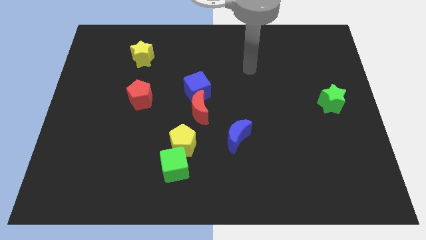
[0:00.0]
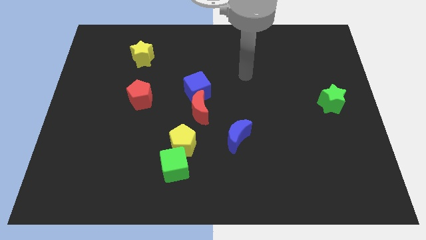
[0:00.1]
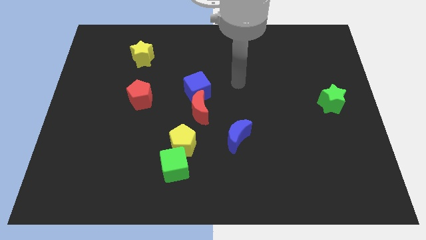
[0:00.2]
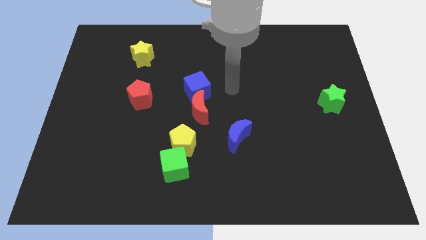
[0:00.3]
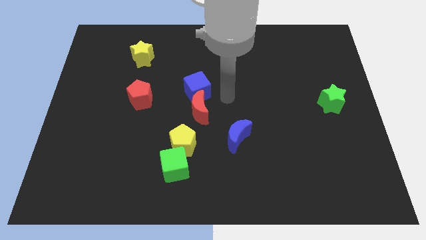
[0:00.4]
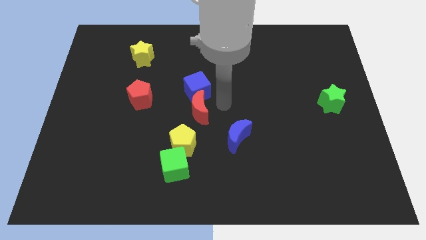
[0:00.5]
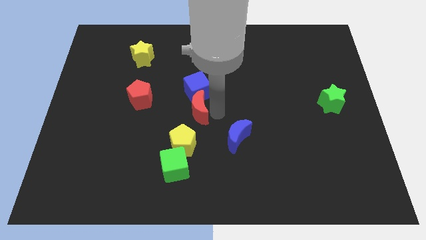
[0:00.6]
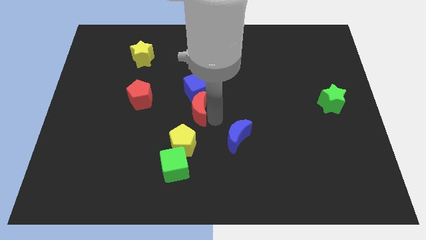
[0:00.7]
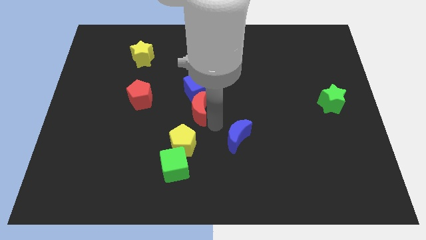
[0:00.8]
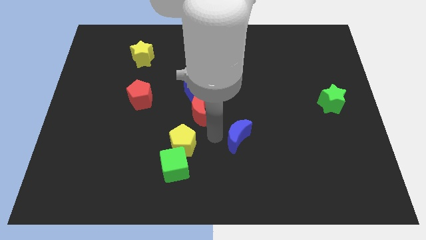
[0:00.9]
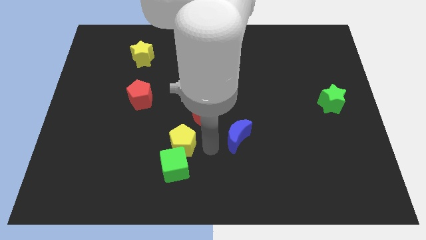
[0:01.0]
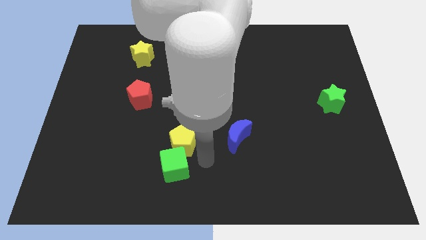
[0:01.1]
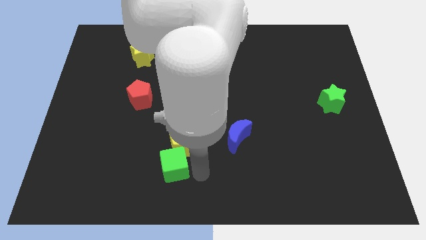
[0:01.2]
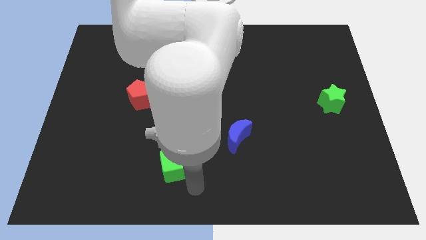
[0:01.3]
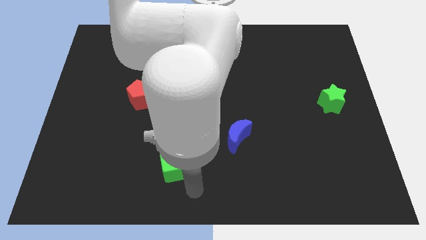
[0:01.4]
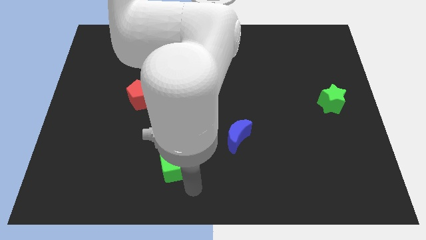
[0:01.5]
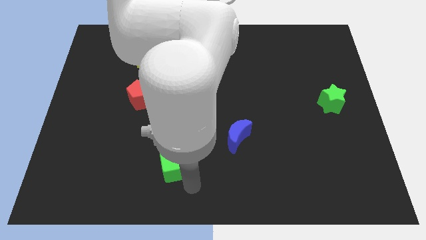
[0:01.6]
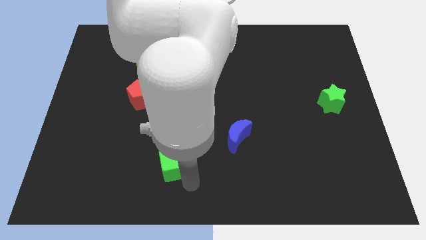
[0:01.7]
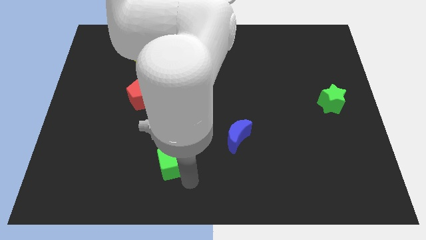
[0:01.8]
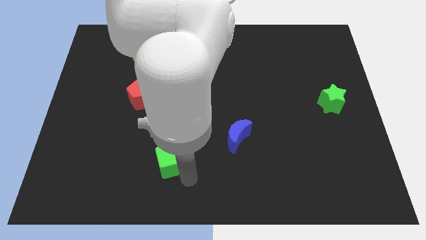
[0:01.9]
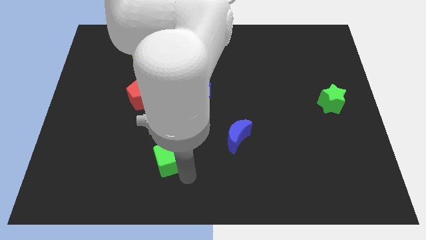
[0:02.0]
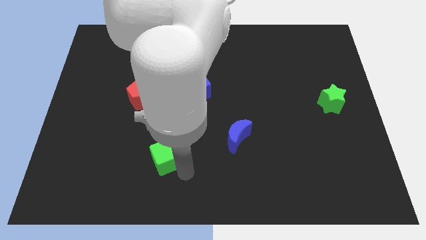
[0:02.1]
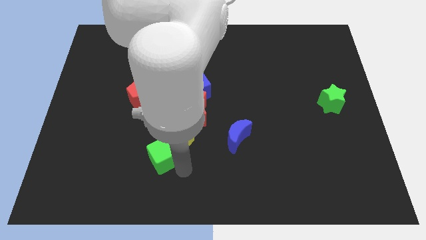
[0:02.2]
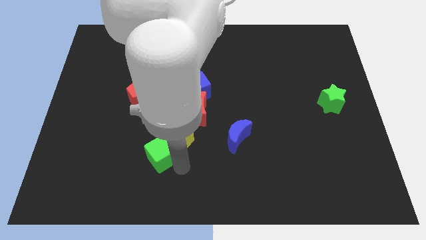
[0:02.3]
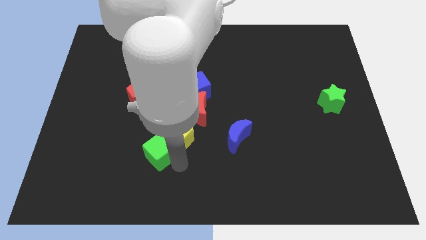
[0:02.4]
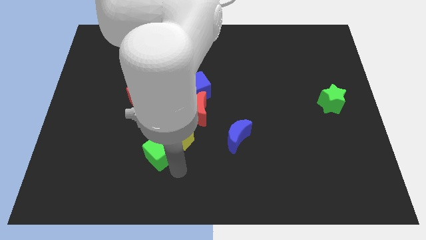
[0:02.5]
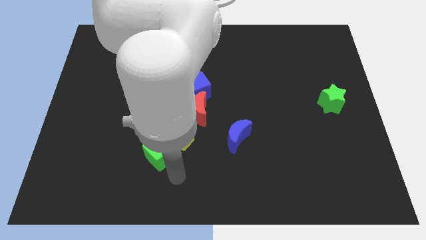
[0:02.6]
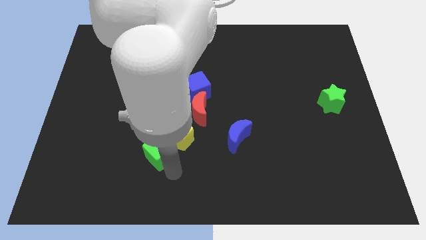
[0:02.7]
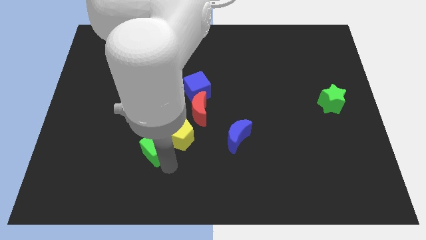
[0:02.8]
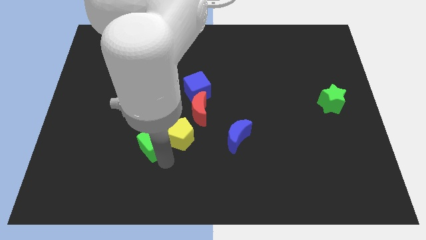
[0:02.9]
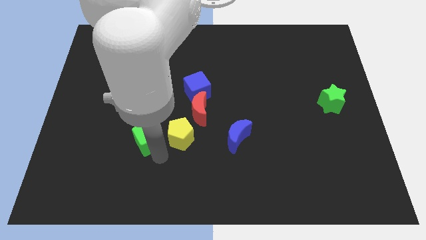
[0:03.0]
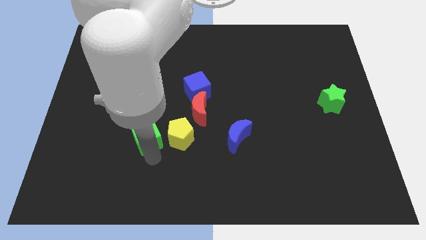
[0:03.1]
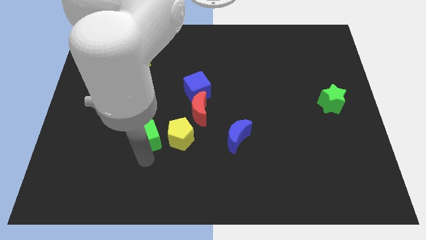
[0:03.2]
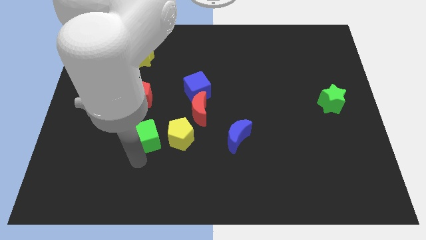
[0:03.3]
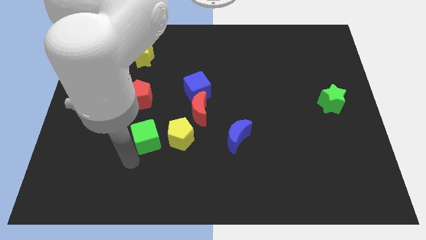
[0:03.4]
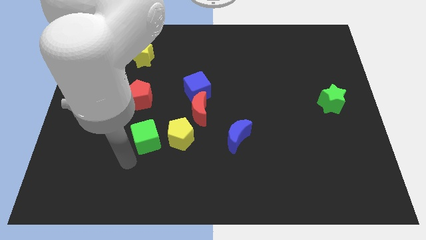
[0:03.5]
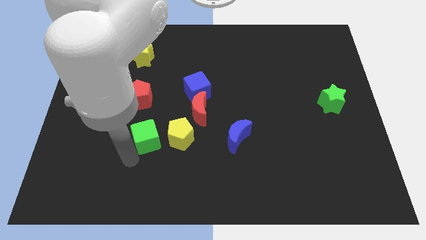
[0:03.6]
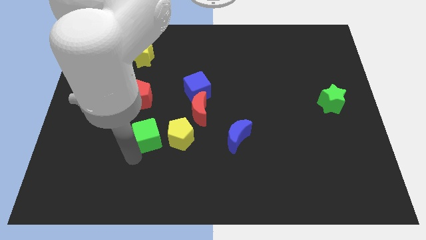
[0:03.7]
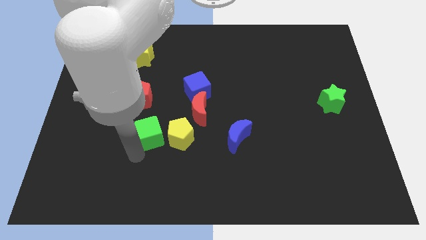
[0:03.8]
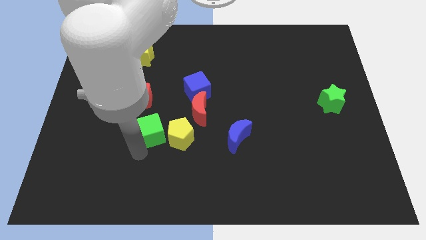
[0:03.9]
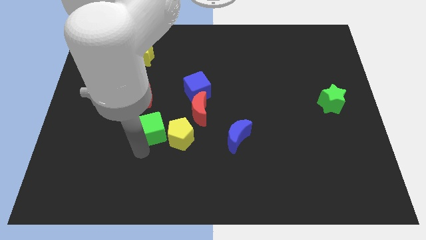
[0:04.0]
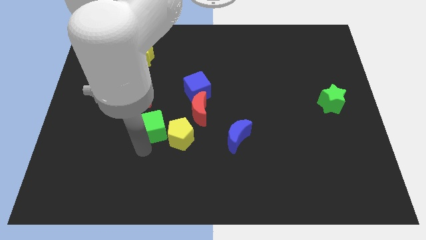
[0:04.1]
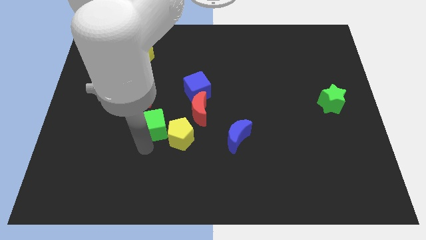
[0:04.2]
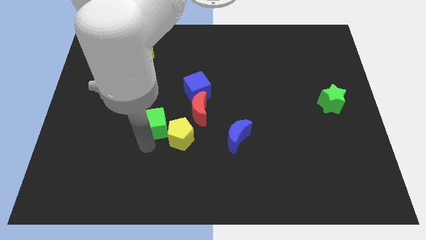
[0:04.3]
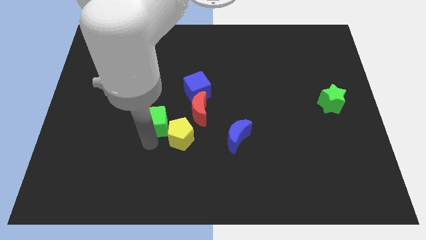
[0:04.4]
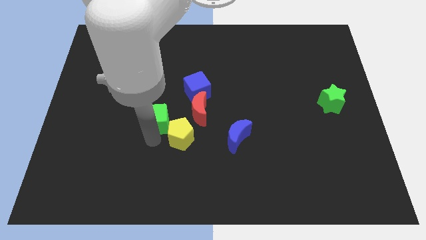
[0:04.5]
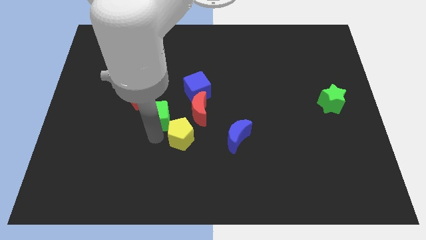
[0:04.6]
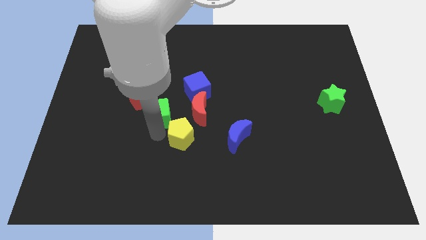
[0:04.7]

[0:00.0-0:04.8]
slide the green cube to the top side of the yellow pentagon
